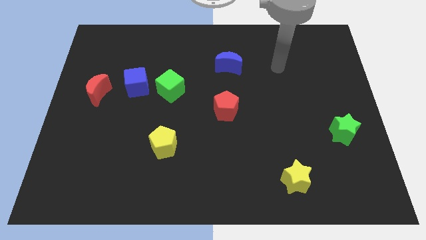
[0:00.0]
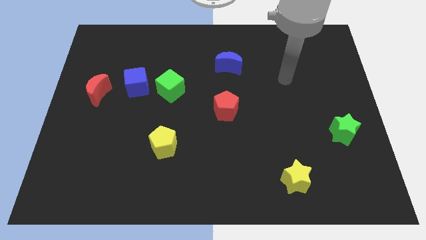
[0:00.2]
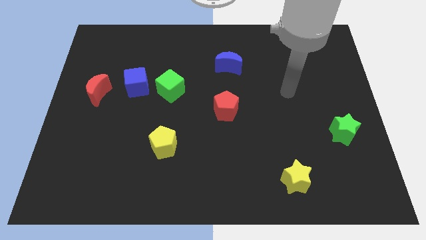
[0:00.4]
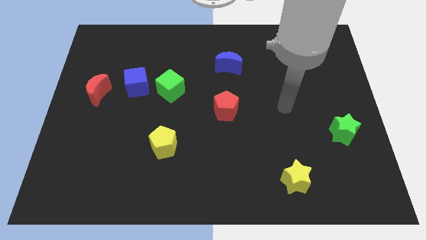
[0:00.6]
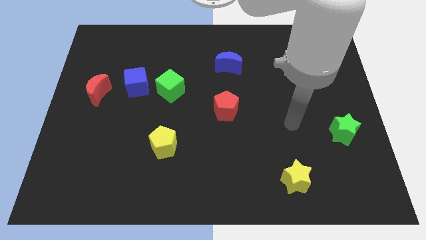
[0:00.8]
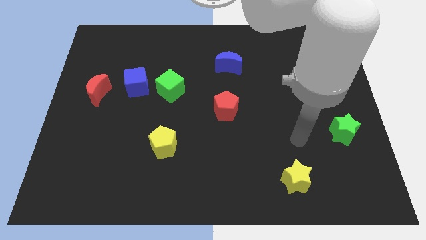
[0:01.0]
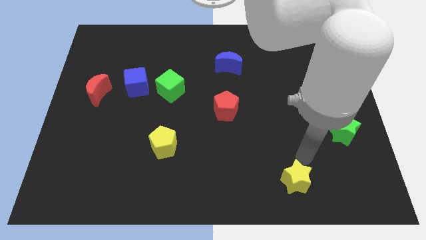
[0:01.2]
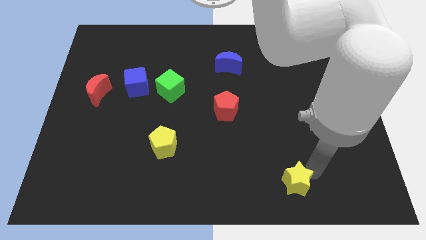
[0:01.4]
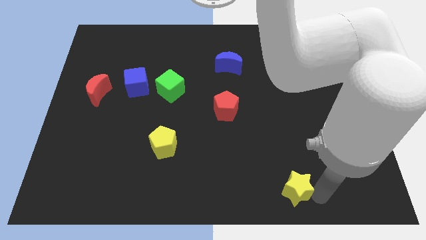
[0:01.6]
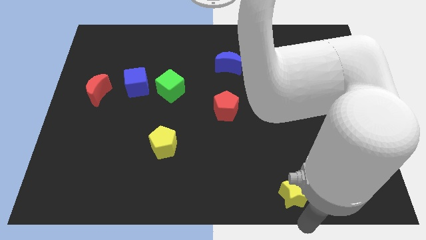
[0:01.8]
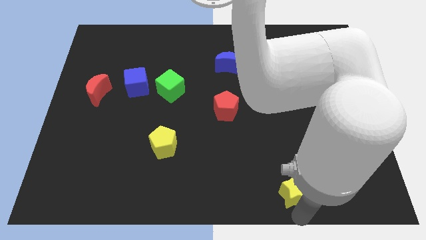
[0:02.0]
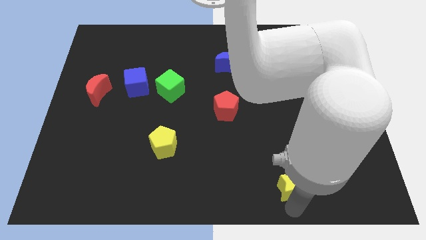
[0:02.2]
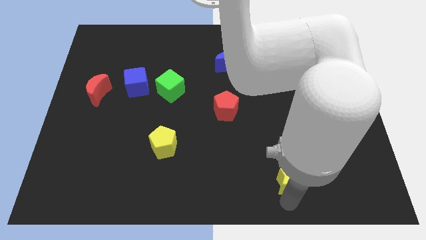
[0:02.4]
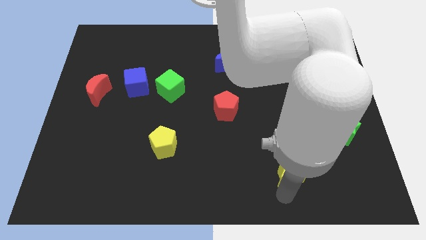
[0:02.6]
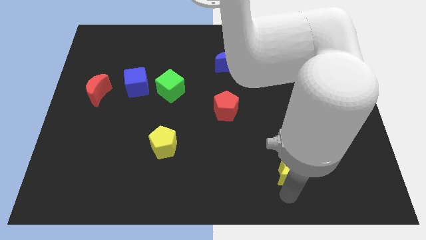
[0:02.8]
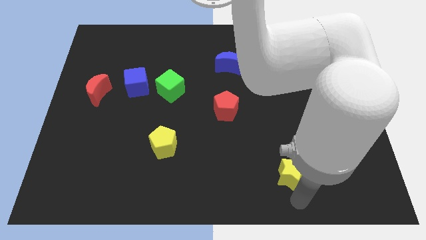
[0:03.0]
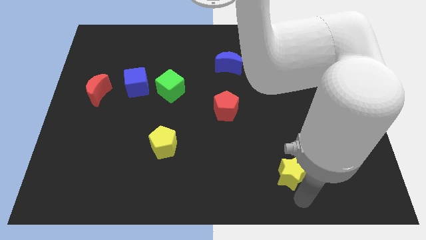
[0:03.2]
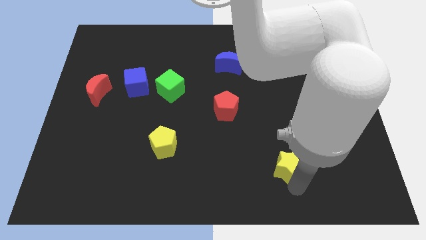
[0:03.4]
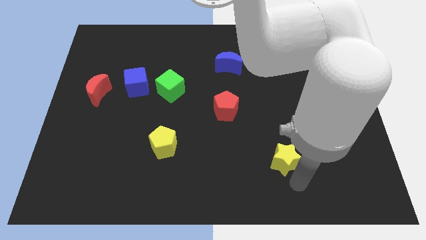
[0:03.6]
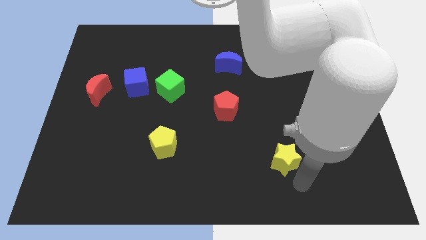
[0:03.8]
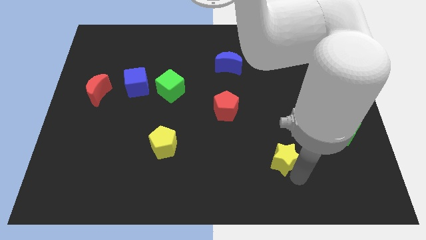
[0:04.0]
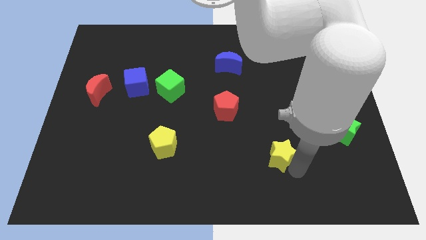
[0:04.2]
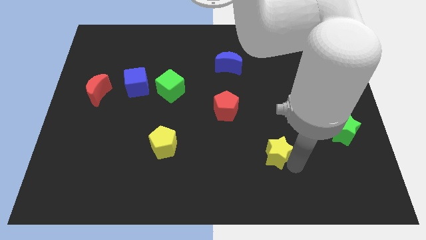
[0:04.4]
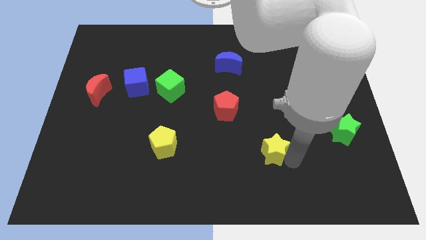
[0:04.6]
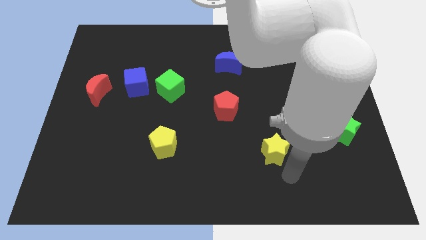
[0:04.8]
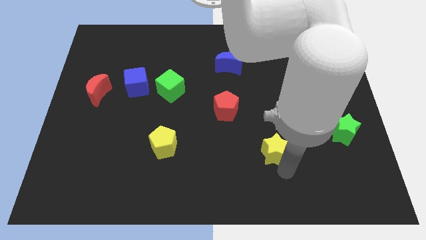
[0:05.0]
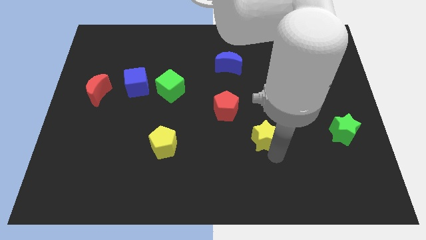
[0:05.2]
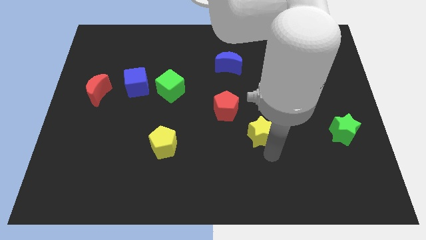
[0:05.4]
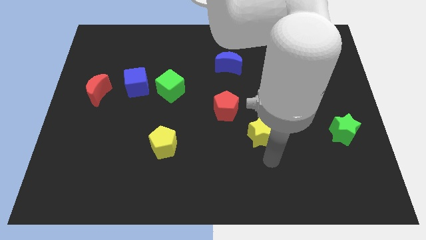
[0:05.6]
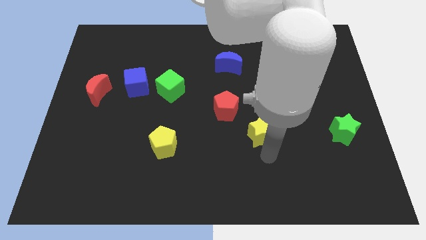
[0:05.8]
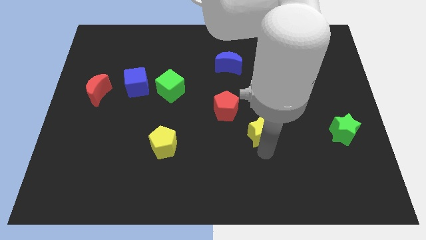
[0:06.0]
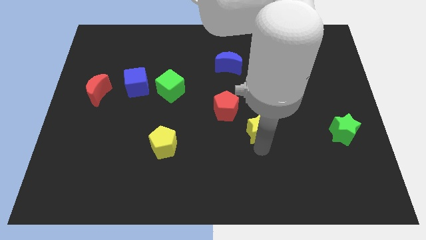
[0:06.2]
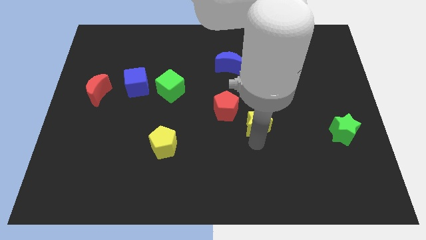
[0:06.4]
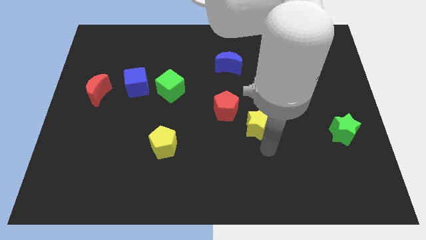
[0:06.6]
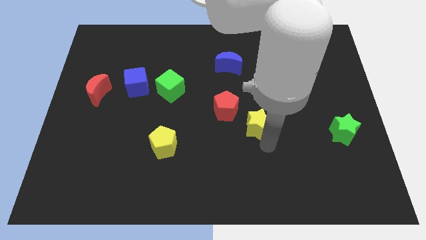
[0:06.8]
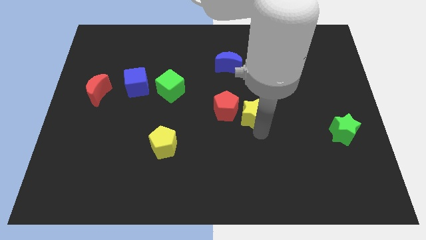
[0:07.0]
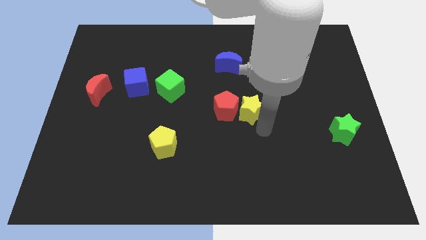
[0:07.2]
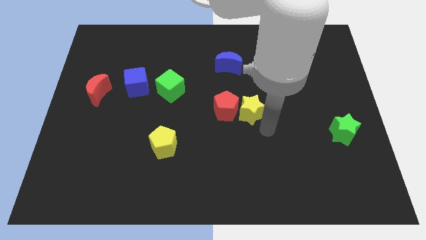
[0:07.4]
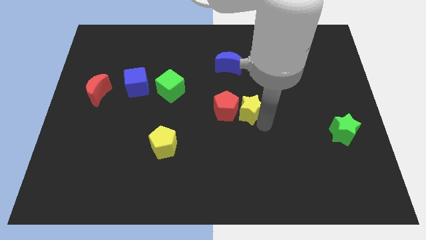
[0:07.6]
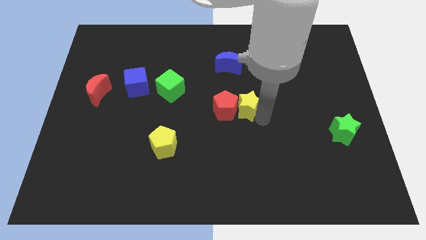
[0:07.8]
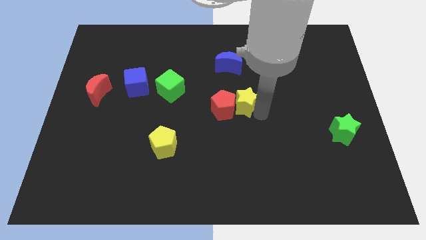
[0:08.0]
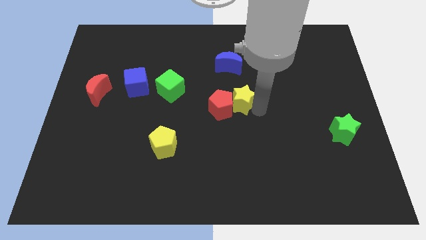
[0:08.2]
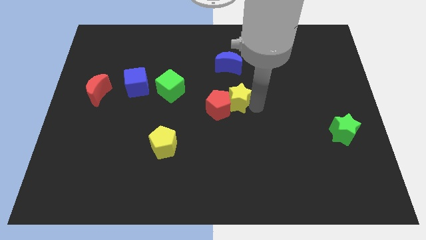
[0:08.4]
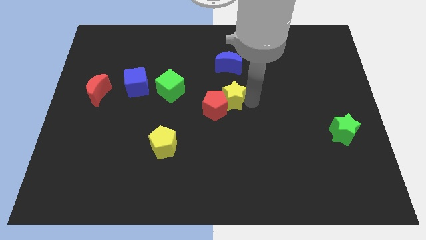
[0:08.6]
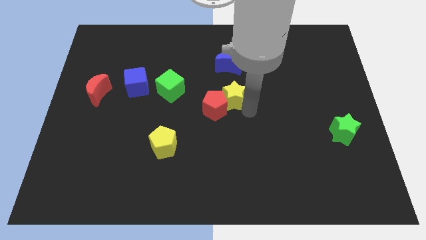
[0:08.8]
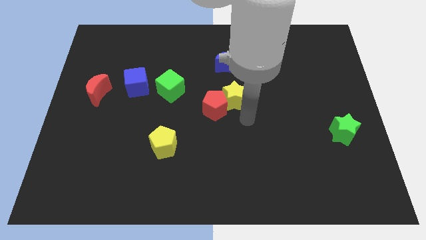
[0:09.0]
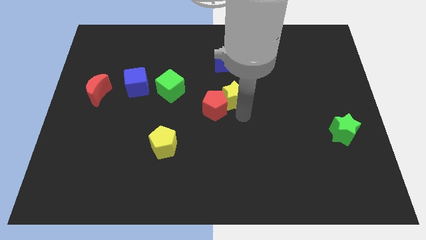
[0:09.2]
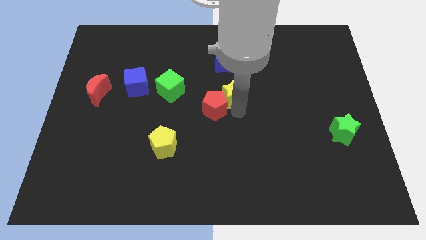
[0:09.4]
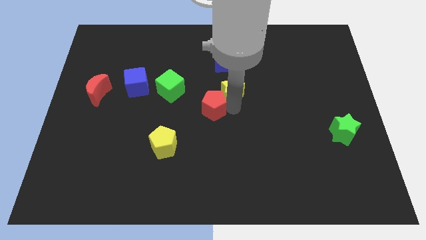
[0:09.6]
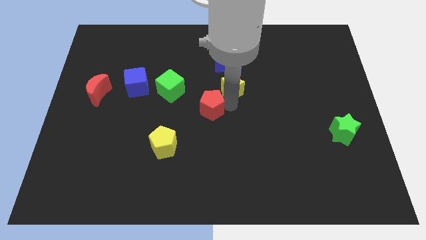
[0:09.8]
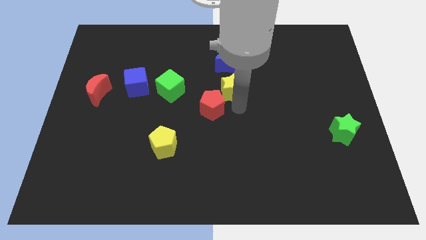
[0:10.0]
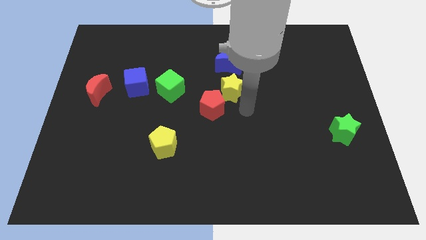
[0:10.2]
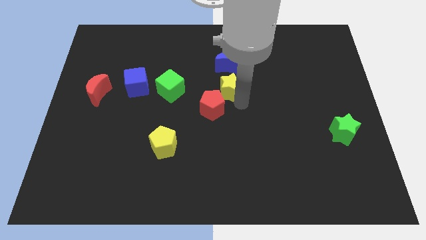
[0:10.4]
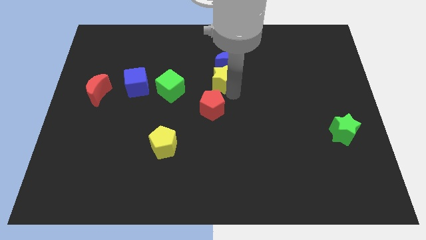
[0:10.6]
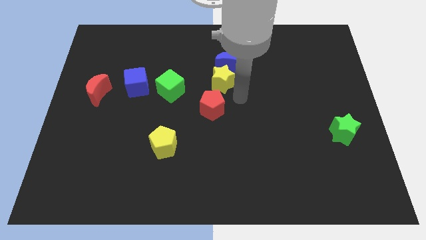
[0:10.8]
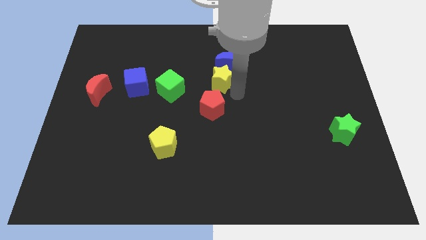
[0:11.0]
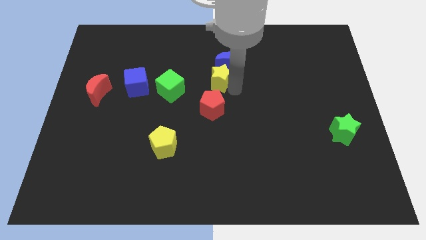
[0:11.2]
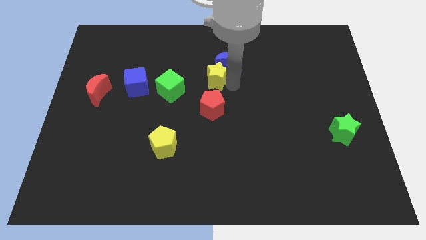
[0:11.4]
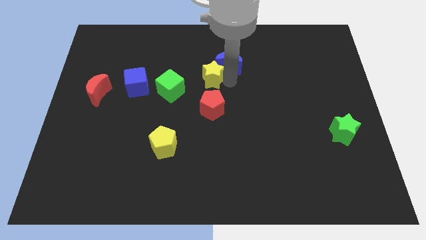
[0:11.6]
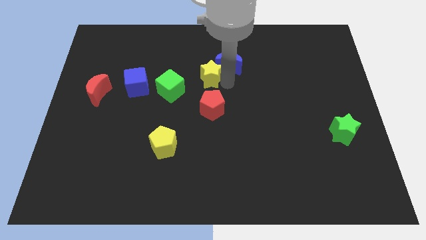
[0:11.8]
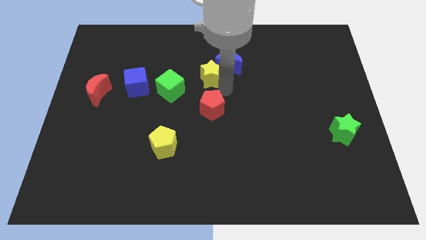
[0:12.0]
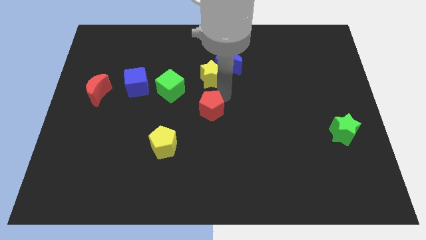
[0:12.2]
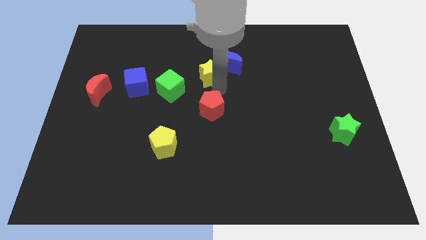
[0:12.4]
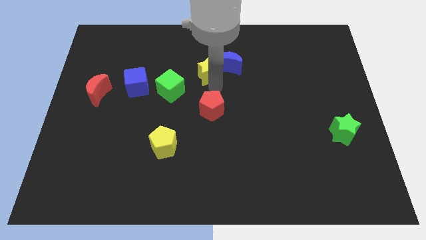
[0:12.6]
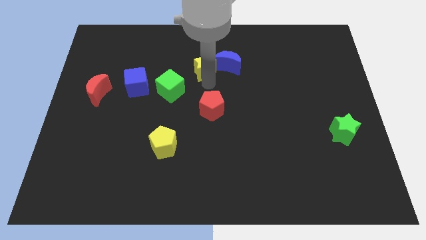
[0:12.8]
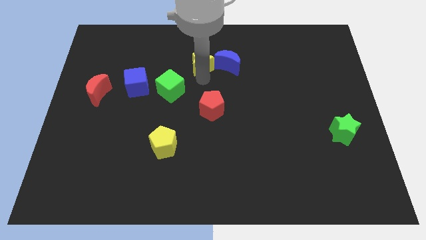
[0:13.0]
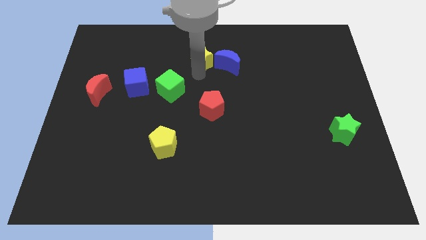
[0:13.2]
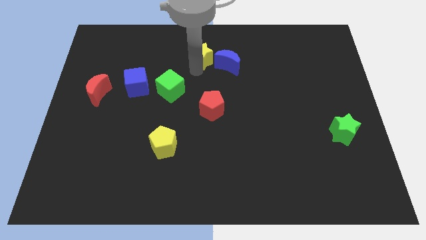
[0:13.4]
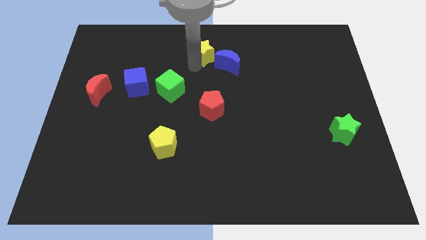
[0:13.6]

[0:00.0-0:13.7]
push the yellow star to the top side
